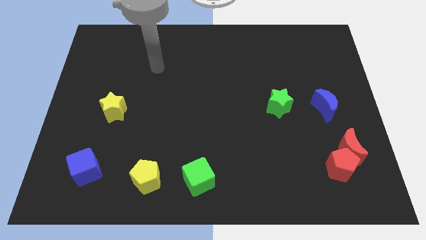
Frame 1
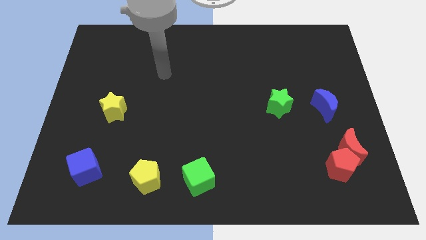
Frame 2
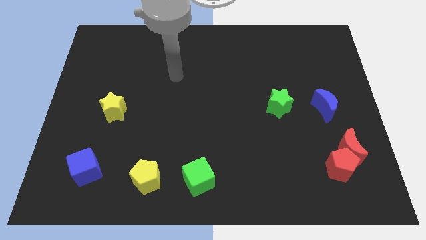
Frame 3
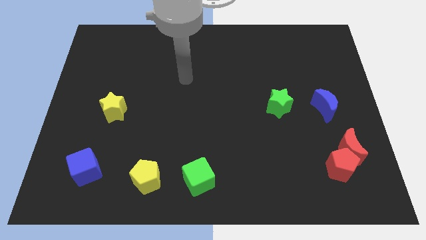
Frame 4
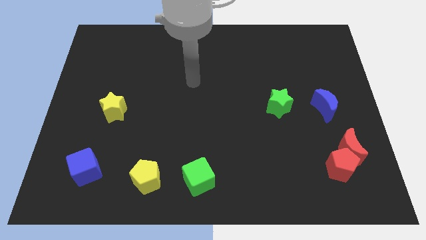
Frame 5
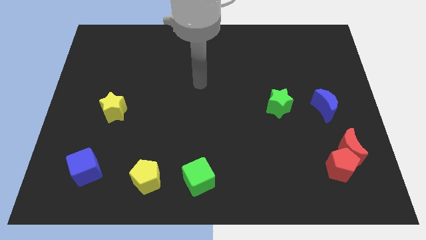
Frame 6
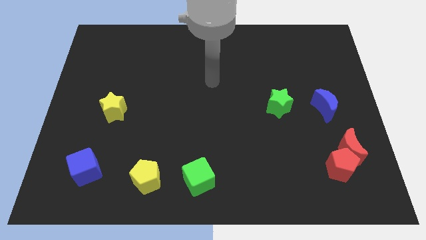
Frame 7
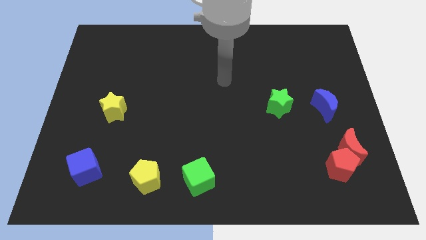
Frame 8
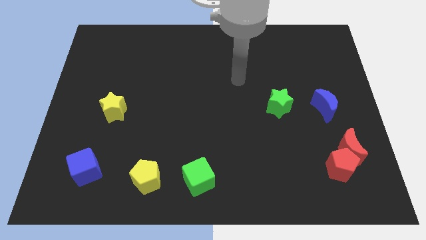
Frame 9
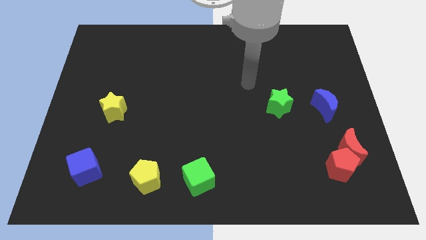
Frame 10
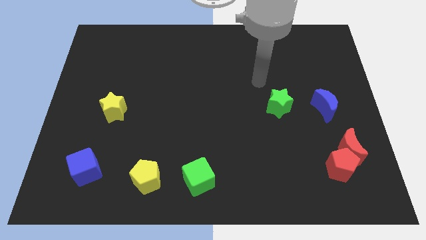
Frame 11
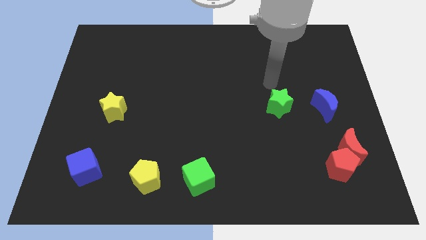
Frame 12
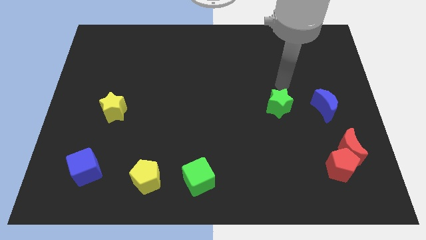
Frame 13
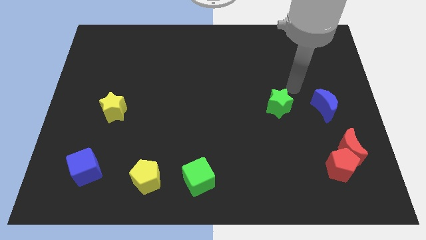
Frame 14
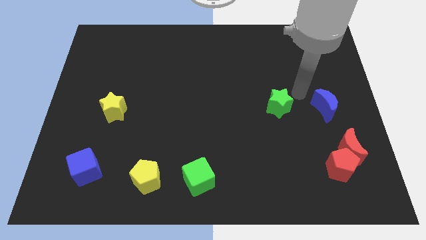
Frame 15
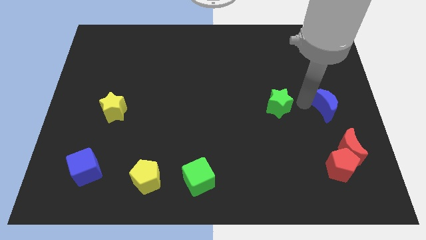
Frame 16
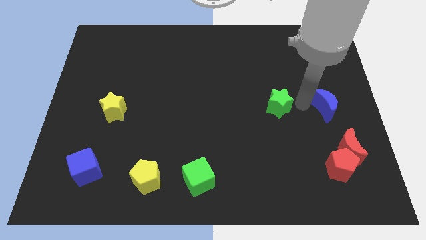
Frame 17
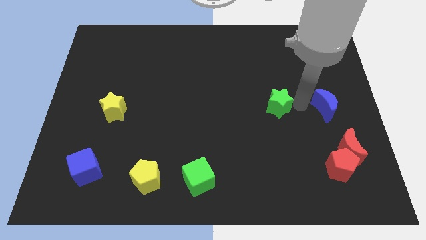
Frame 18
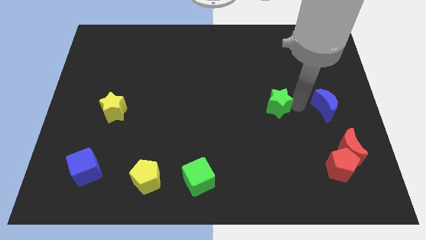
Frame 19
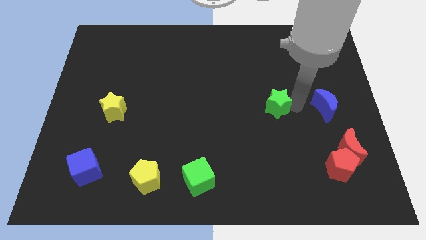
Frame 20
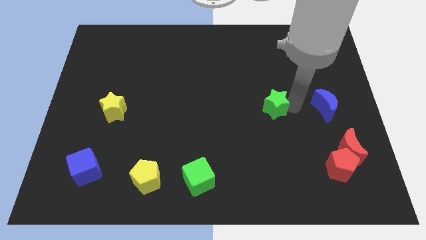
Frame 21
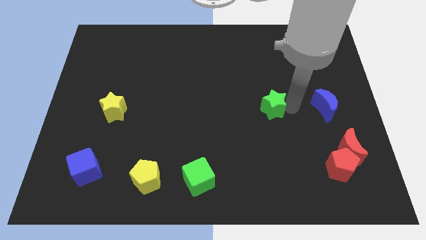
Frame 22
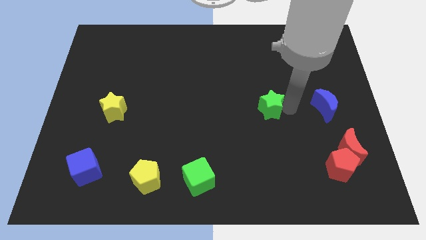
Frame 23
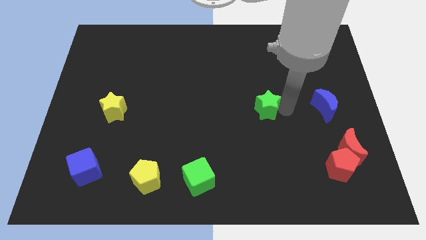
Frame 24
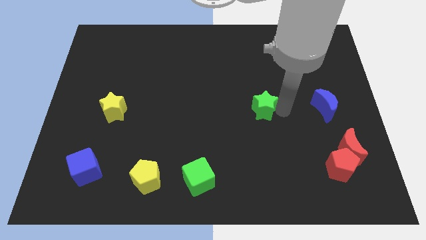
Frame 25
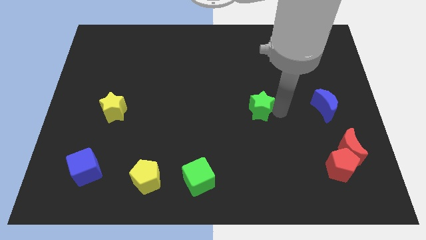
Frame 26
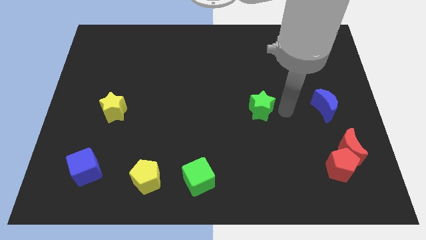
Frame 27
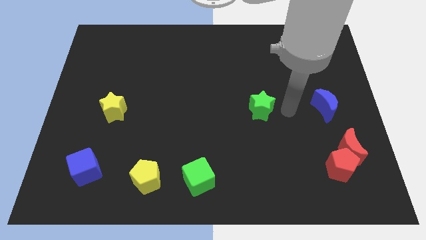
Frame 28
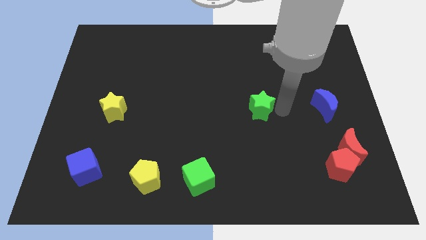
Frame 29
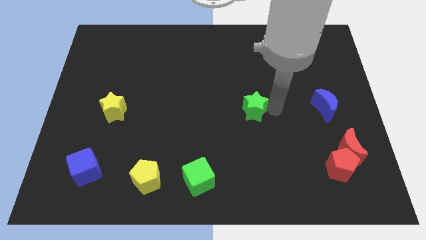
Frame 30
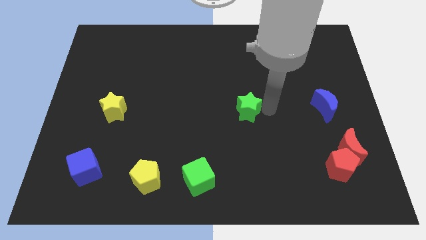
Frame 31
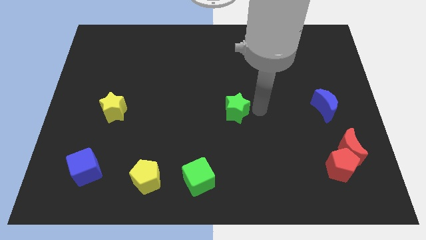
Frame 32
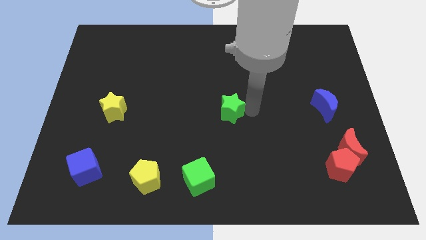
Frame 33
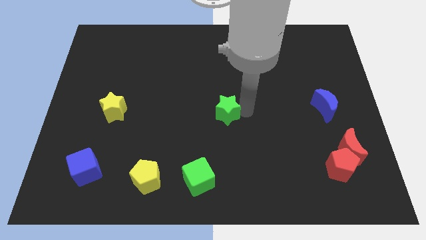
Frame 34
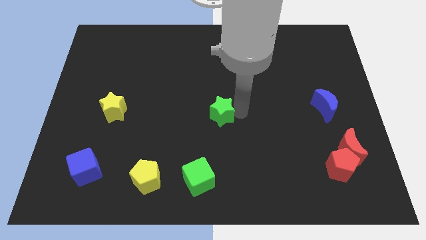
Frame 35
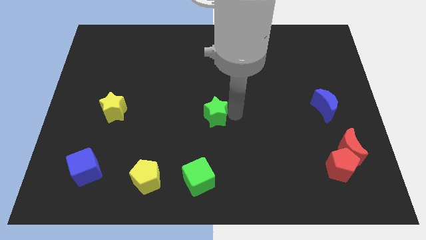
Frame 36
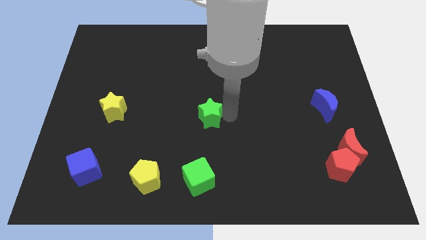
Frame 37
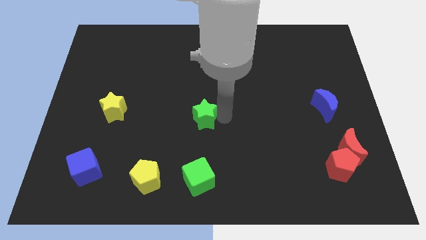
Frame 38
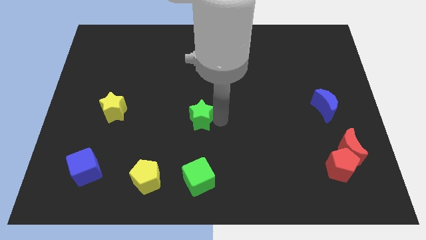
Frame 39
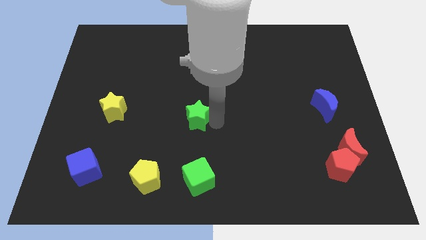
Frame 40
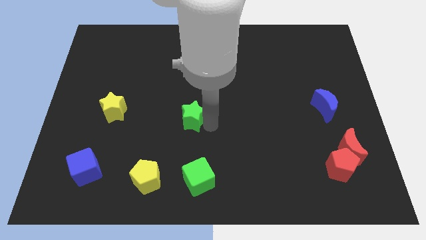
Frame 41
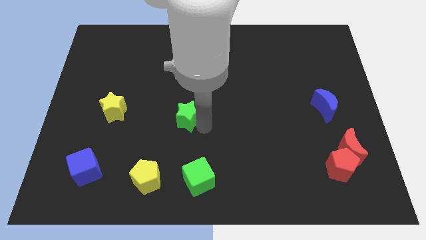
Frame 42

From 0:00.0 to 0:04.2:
slide the green star left

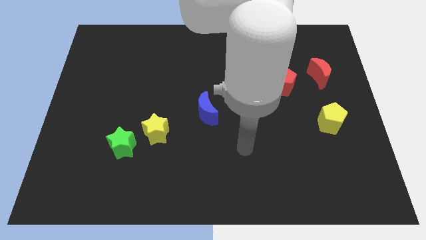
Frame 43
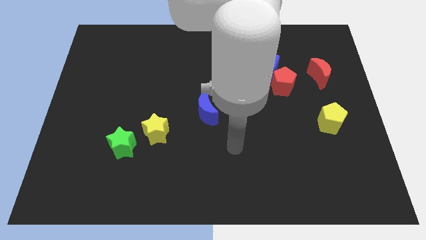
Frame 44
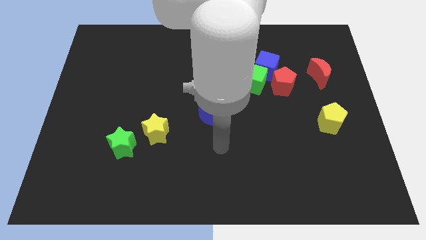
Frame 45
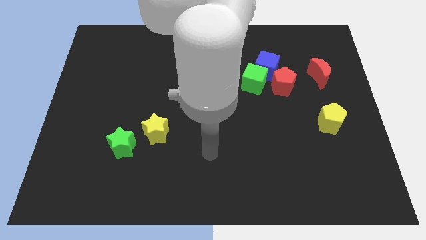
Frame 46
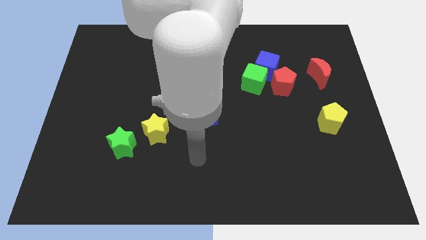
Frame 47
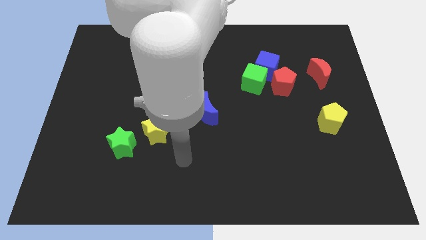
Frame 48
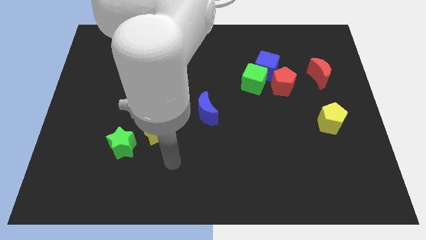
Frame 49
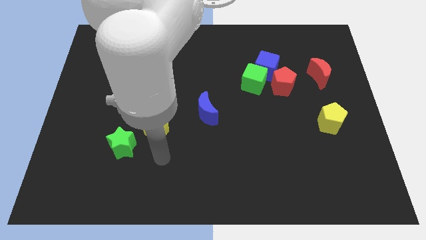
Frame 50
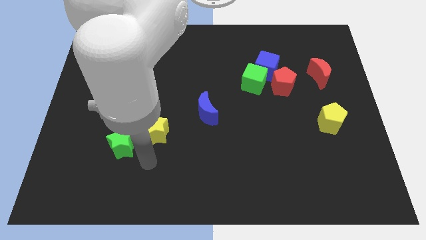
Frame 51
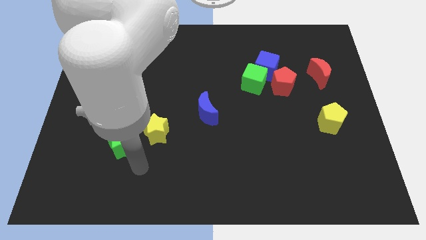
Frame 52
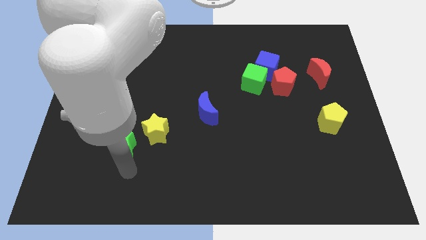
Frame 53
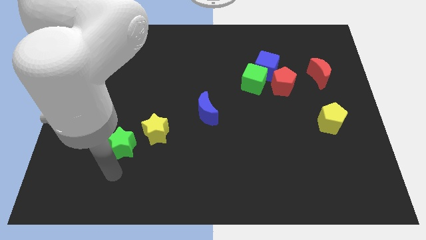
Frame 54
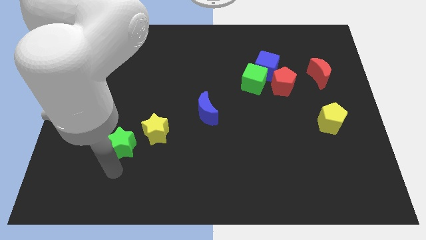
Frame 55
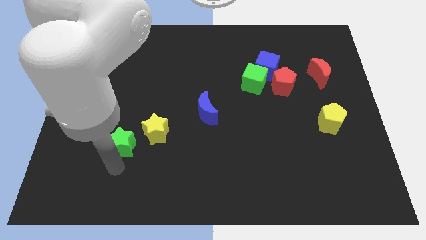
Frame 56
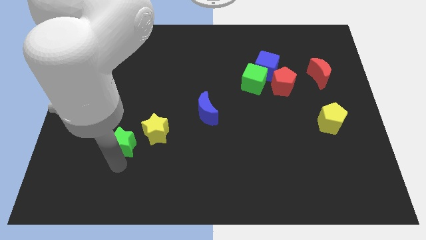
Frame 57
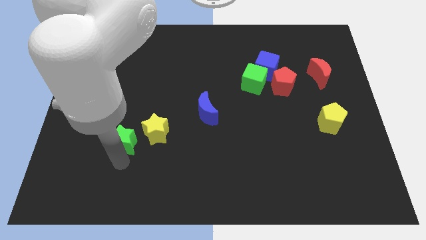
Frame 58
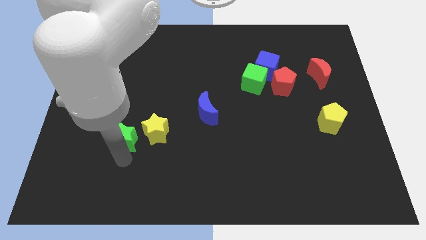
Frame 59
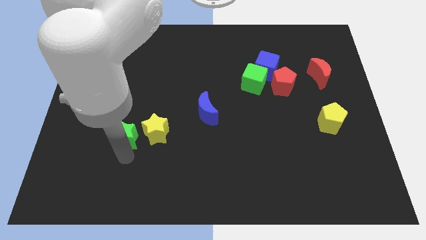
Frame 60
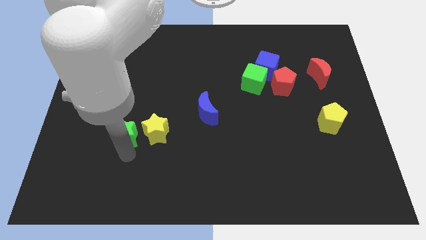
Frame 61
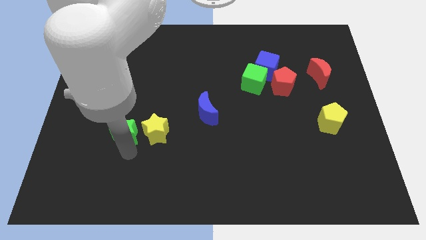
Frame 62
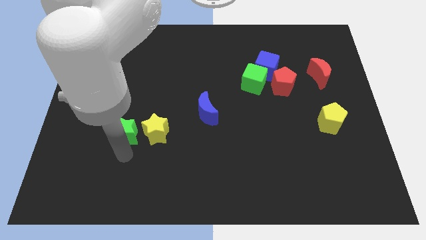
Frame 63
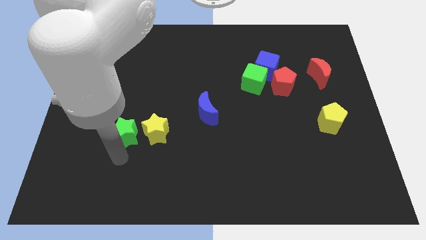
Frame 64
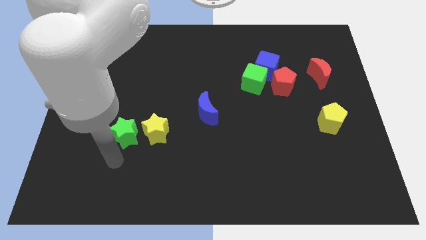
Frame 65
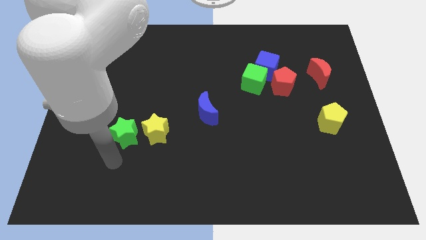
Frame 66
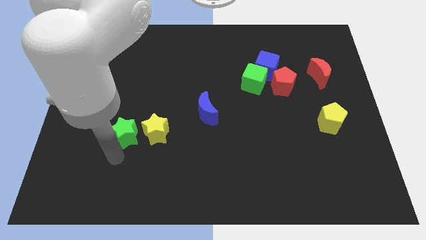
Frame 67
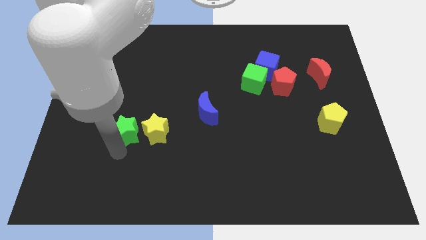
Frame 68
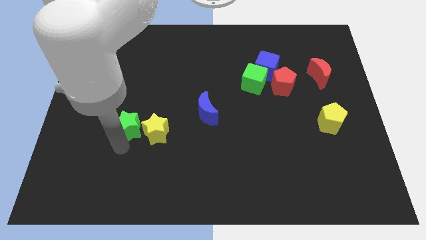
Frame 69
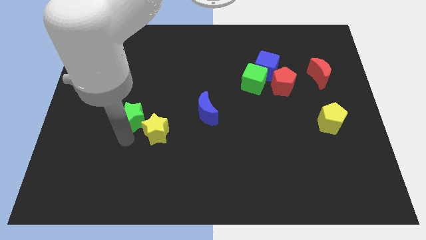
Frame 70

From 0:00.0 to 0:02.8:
move the green star up a little bit

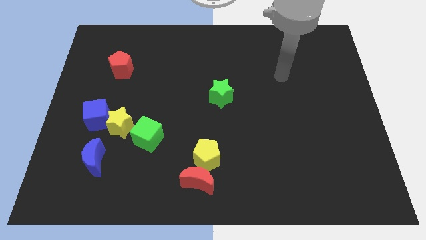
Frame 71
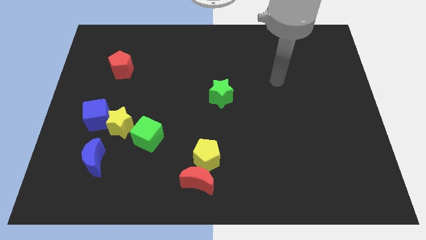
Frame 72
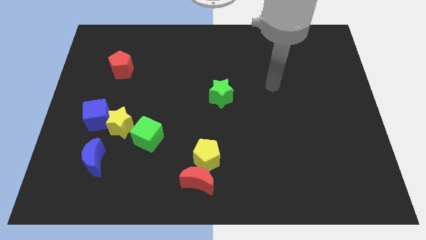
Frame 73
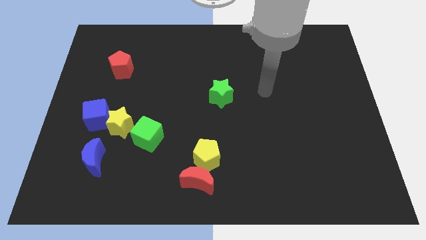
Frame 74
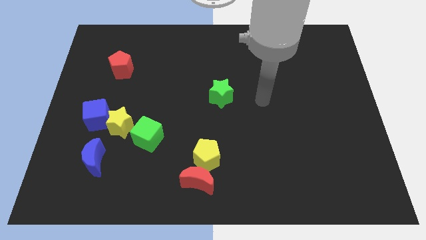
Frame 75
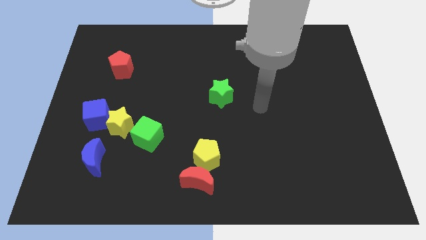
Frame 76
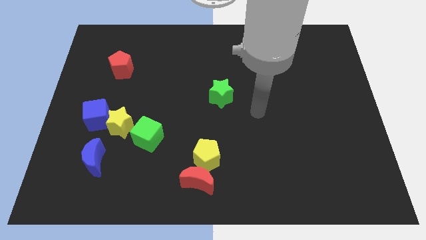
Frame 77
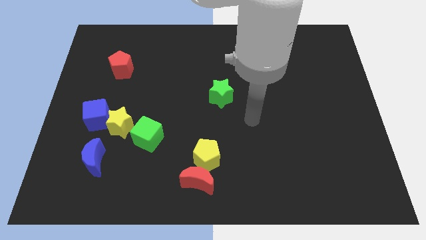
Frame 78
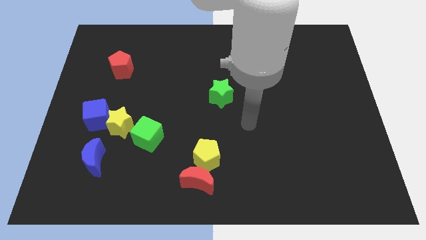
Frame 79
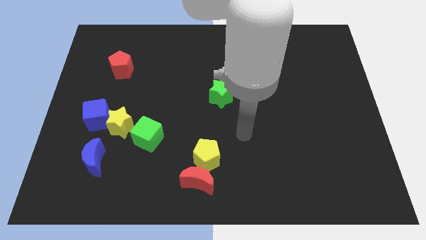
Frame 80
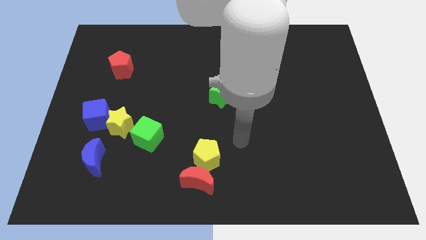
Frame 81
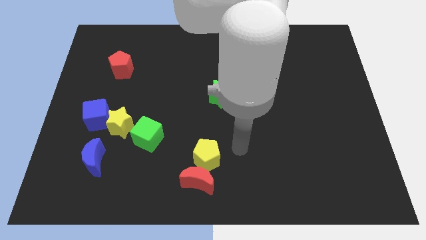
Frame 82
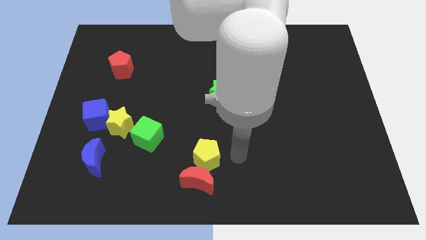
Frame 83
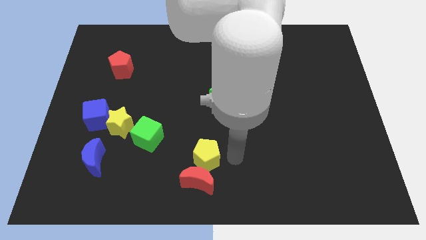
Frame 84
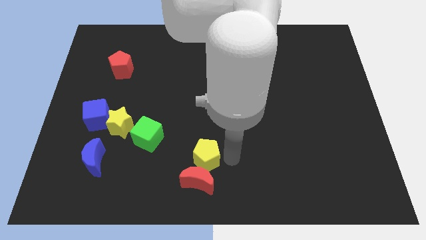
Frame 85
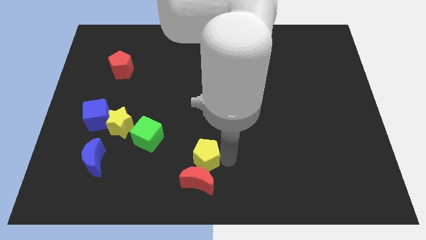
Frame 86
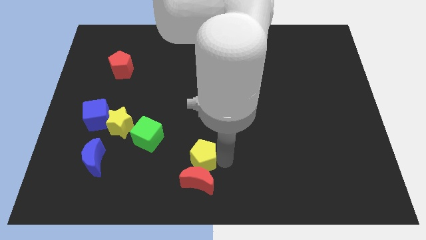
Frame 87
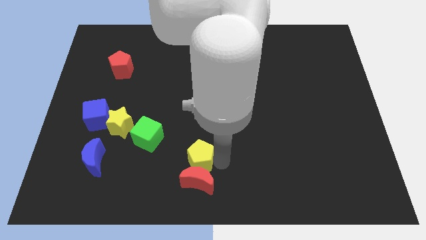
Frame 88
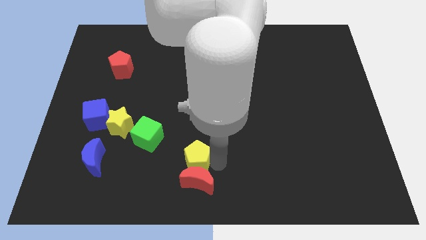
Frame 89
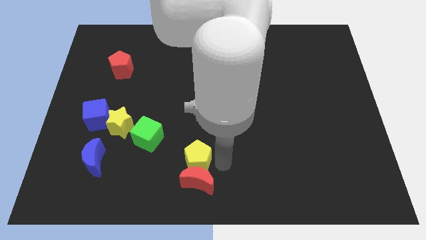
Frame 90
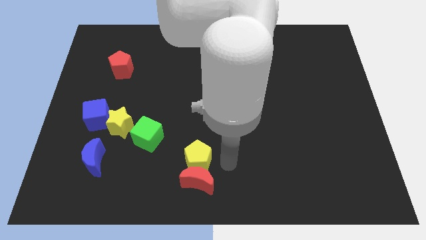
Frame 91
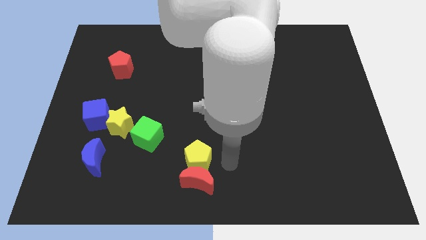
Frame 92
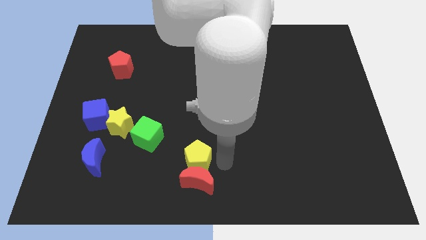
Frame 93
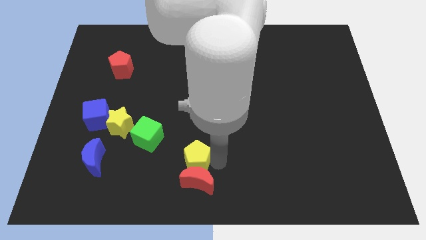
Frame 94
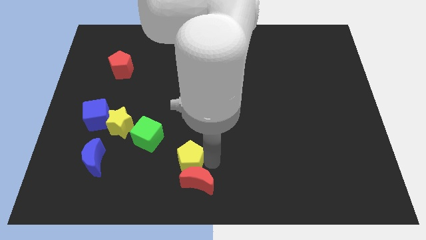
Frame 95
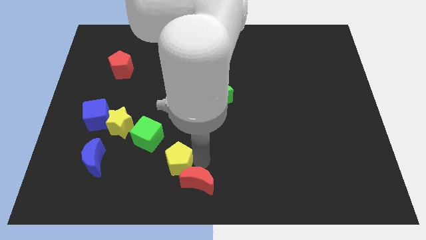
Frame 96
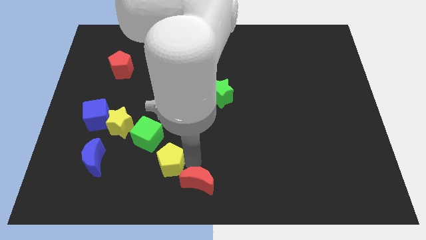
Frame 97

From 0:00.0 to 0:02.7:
slightly slide the yellow pentagon to the left
